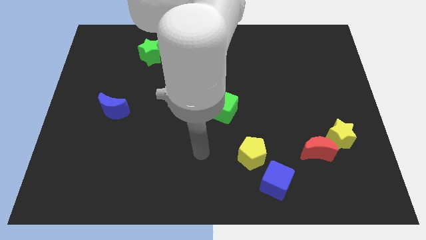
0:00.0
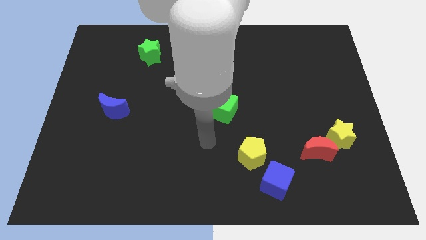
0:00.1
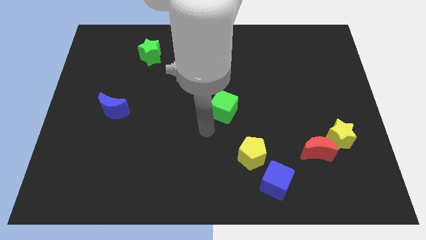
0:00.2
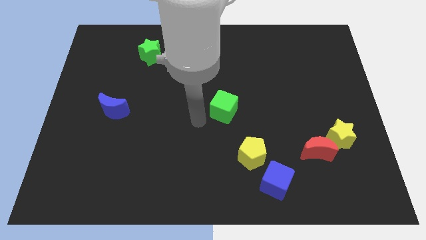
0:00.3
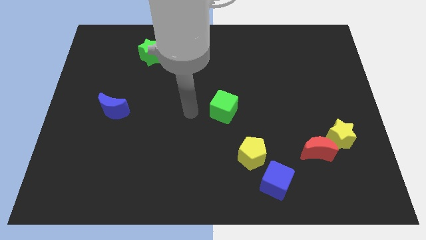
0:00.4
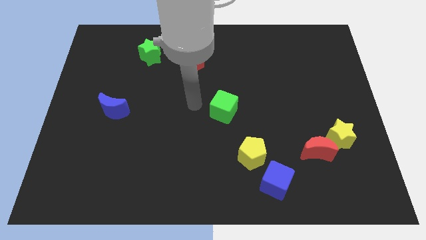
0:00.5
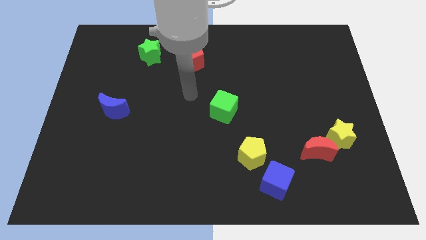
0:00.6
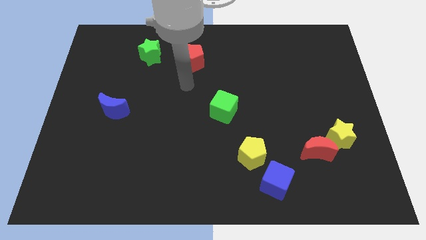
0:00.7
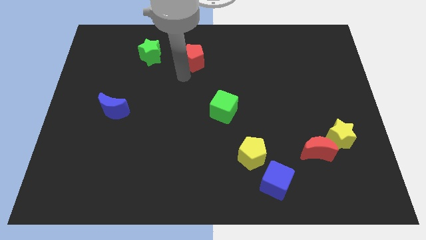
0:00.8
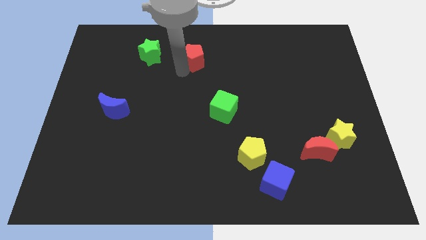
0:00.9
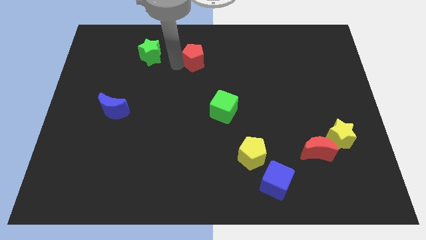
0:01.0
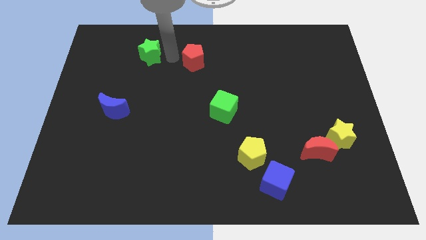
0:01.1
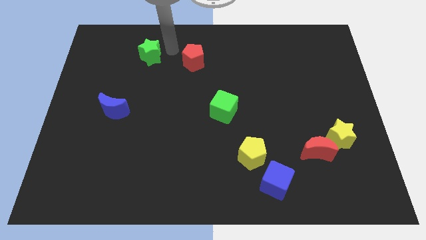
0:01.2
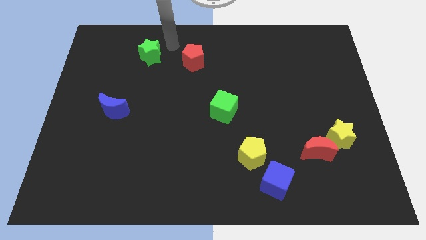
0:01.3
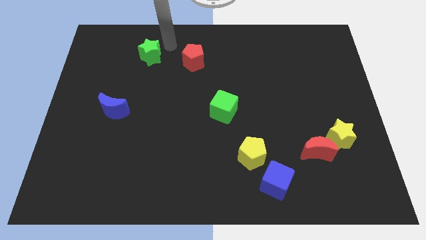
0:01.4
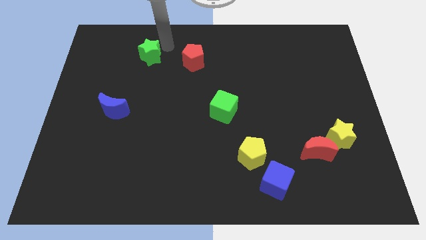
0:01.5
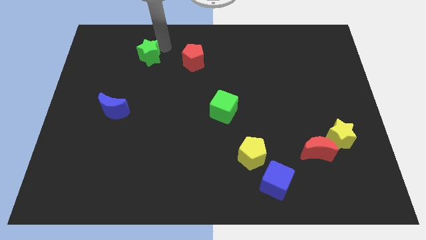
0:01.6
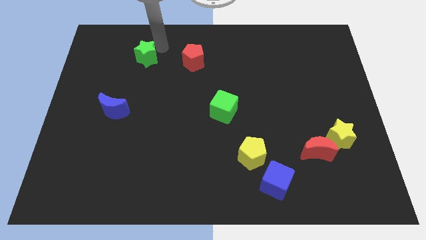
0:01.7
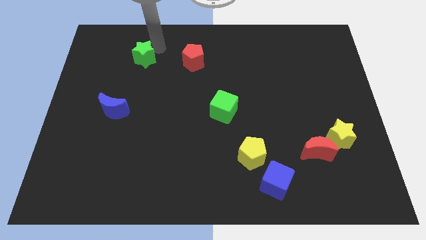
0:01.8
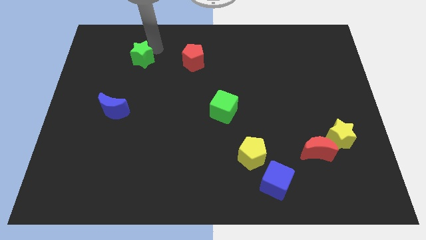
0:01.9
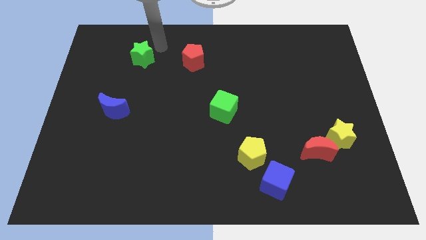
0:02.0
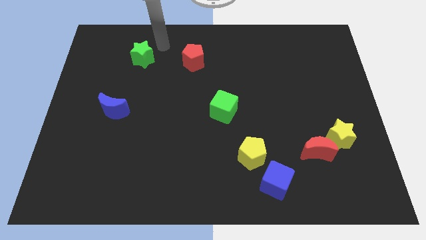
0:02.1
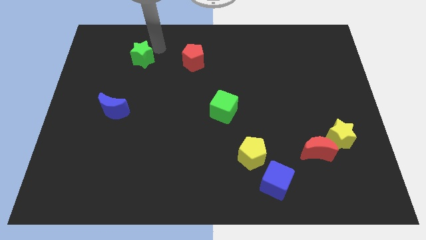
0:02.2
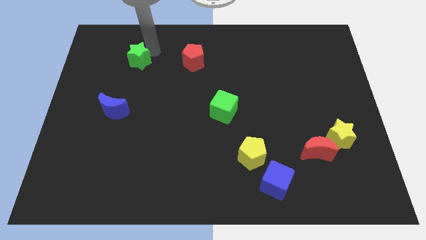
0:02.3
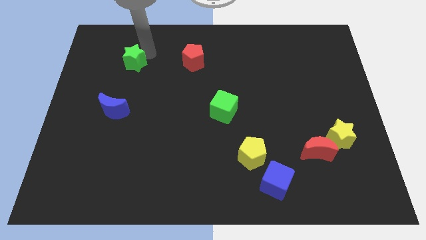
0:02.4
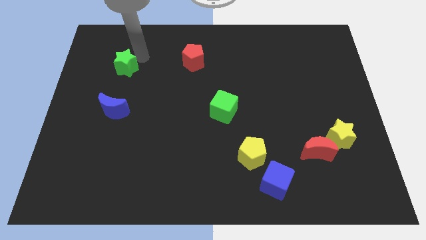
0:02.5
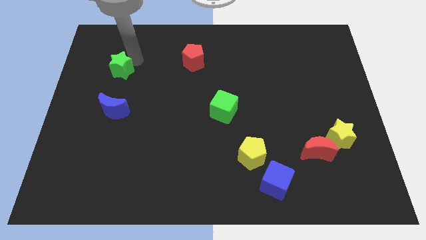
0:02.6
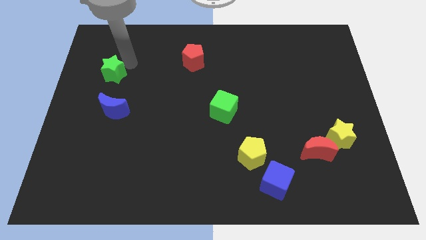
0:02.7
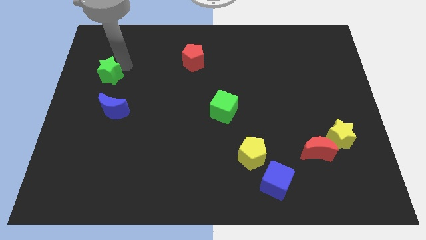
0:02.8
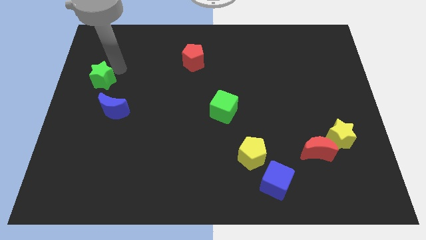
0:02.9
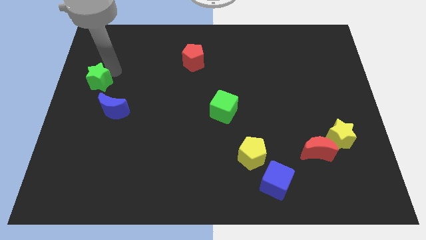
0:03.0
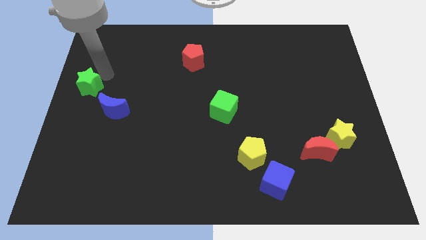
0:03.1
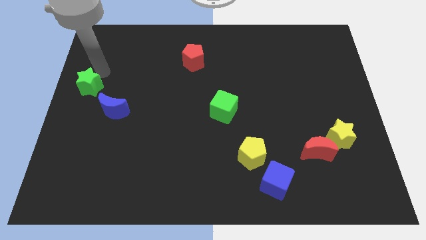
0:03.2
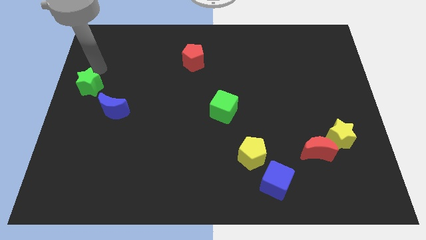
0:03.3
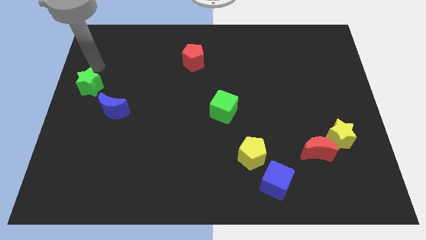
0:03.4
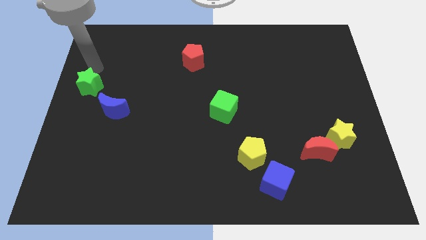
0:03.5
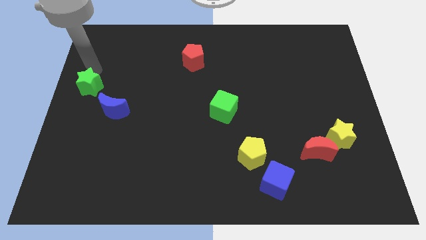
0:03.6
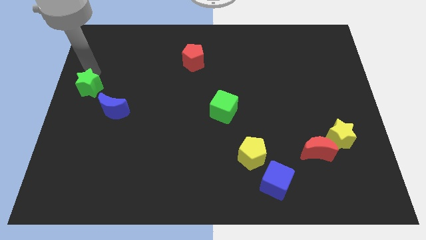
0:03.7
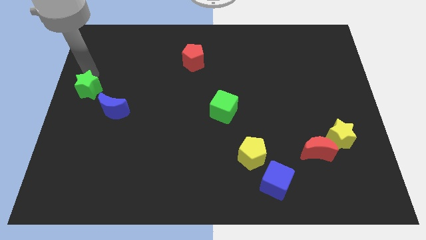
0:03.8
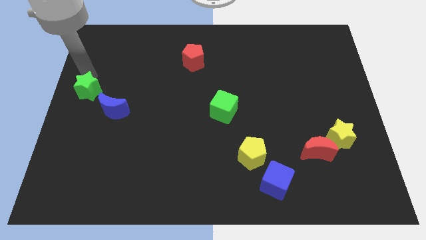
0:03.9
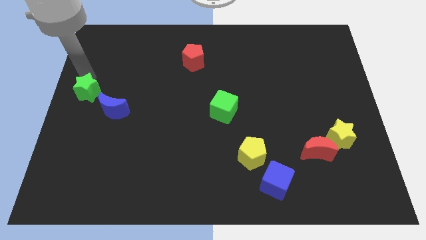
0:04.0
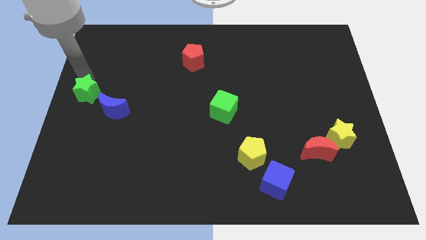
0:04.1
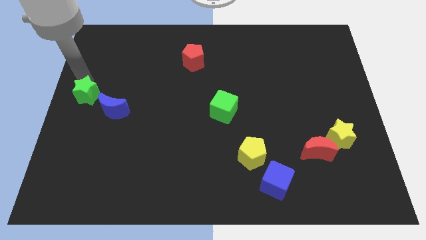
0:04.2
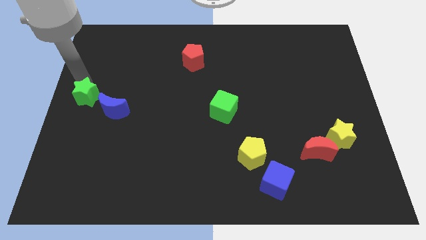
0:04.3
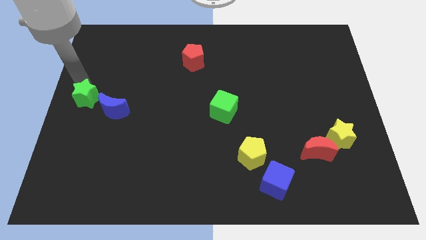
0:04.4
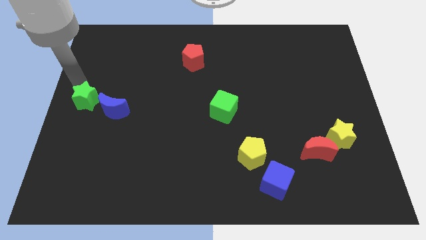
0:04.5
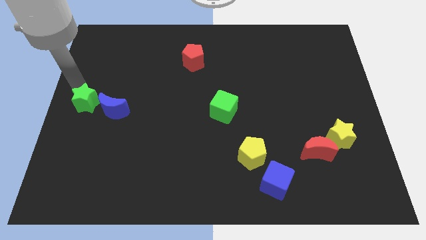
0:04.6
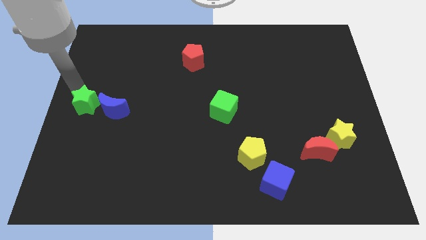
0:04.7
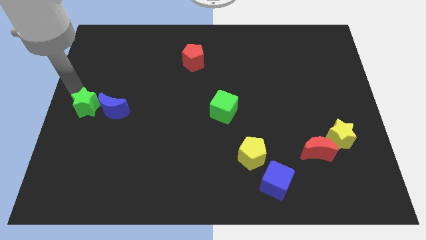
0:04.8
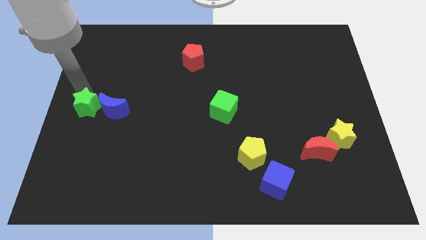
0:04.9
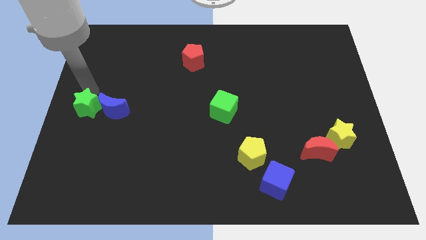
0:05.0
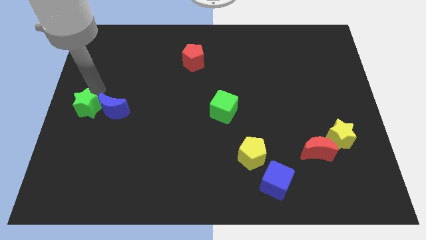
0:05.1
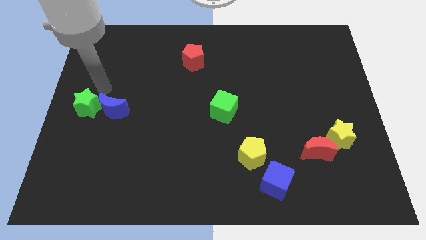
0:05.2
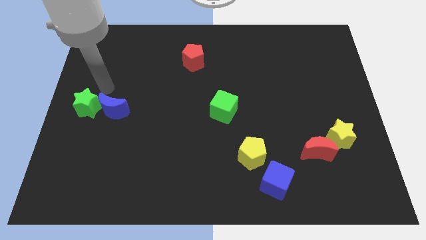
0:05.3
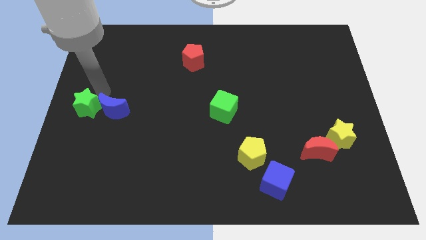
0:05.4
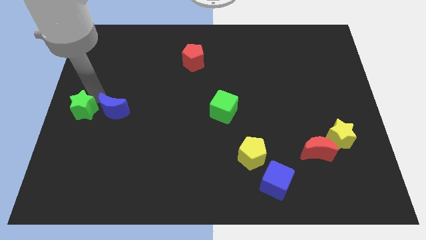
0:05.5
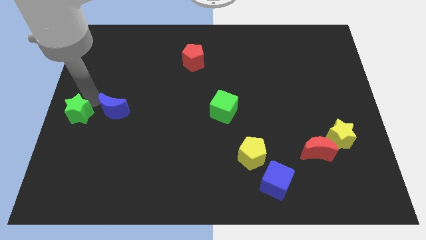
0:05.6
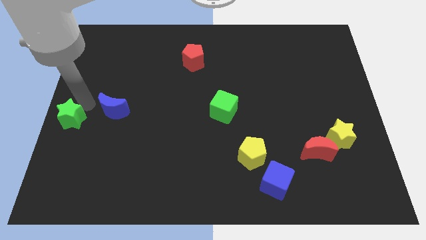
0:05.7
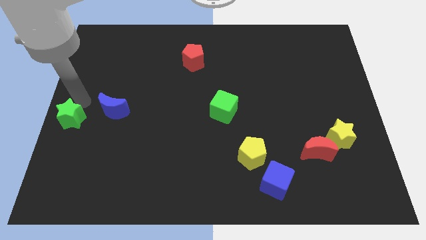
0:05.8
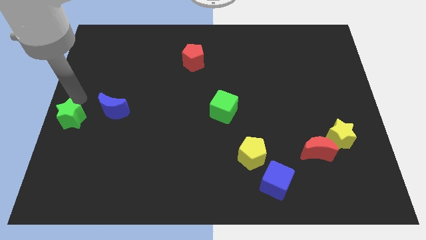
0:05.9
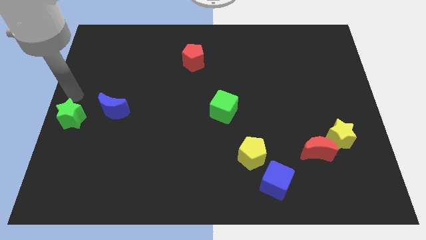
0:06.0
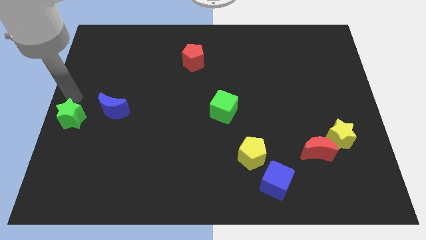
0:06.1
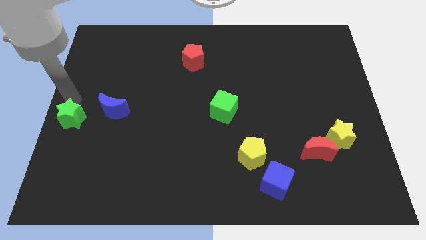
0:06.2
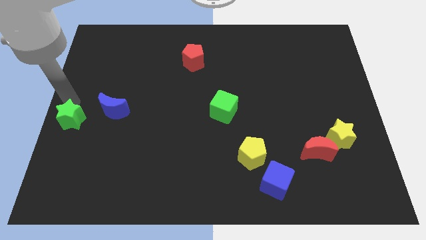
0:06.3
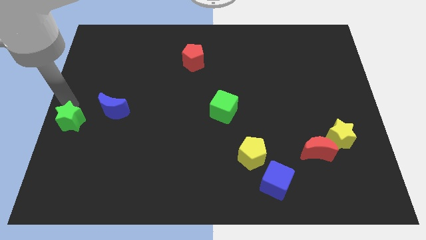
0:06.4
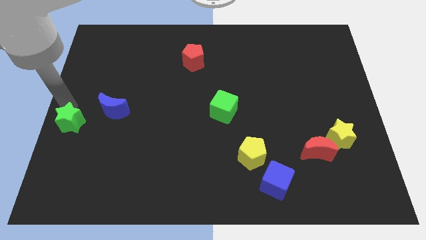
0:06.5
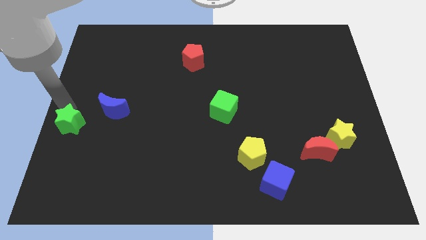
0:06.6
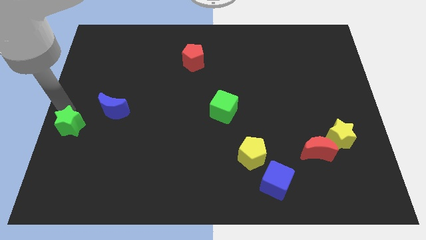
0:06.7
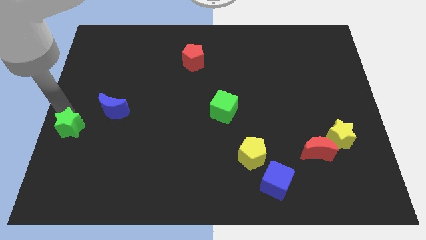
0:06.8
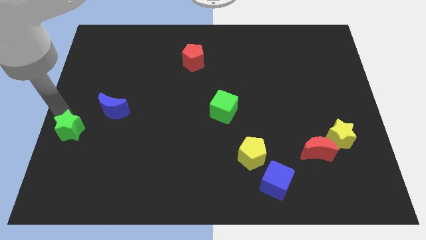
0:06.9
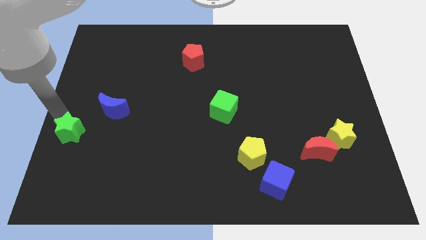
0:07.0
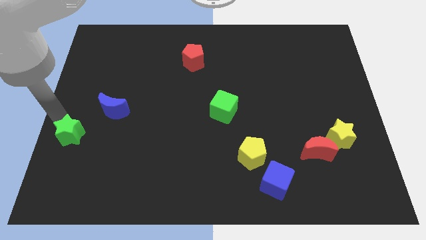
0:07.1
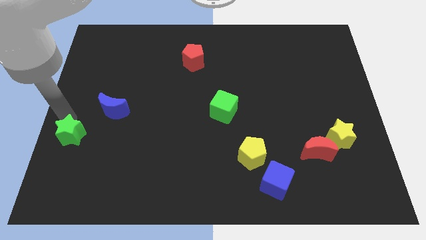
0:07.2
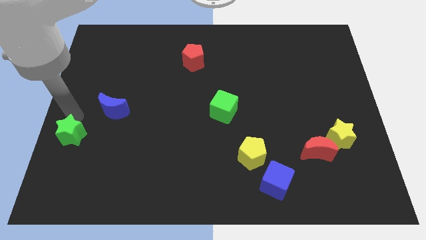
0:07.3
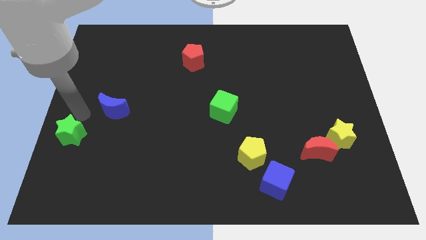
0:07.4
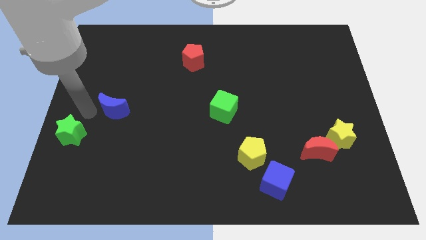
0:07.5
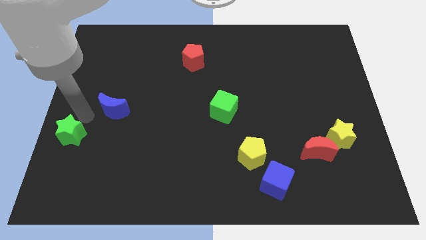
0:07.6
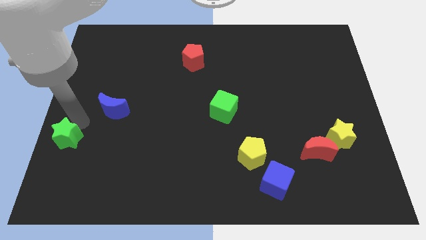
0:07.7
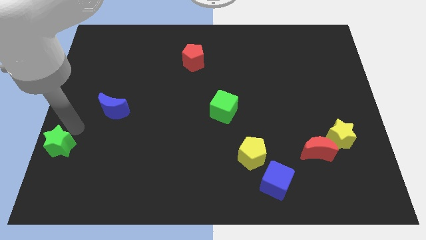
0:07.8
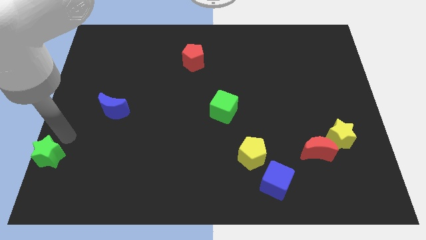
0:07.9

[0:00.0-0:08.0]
move the green star to the lower left corner
